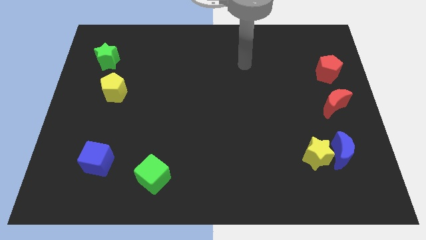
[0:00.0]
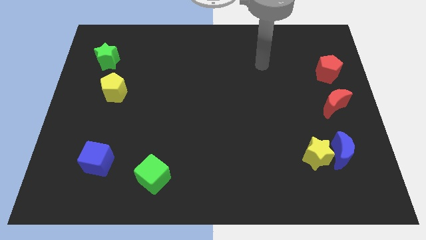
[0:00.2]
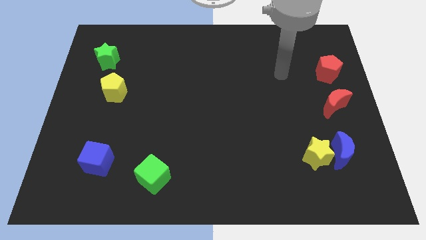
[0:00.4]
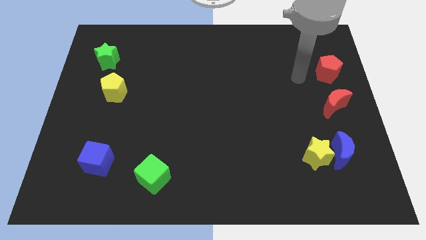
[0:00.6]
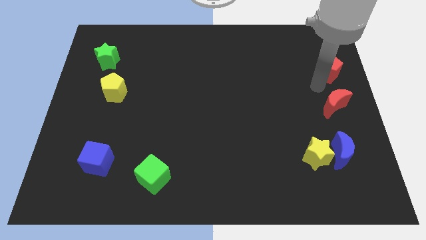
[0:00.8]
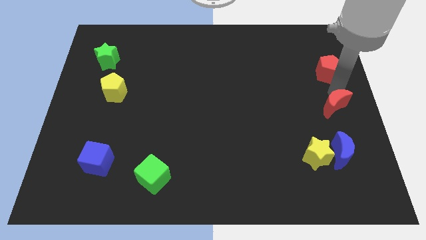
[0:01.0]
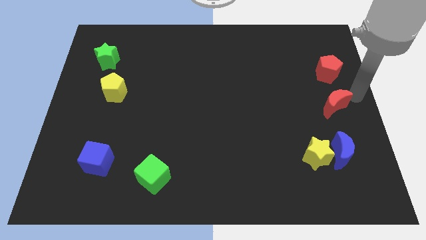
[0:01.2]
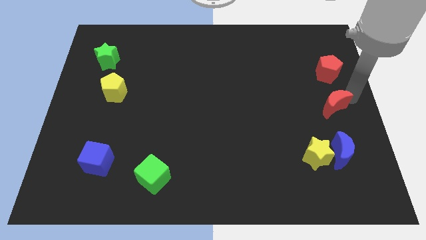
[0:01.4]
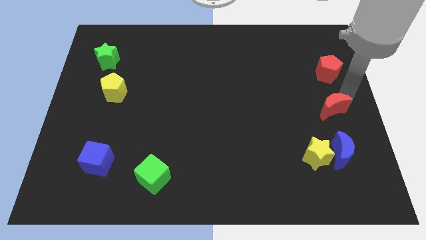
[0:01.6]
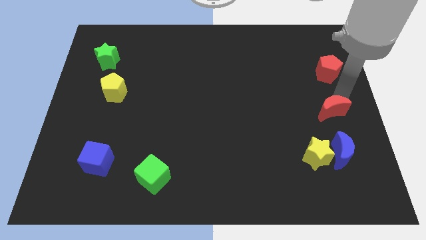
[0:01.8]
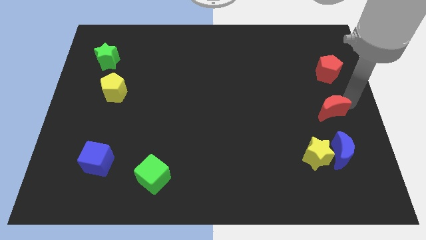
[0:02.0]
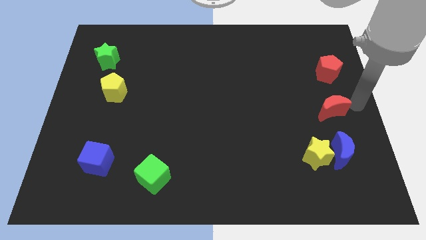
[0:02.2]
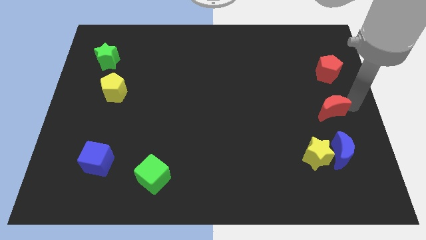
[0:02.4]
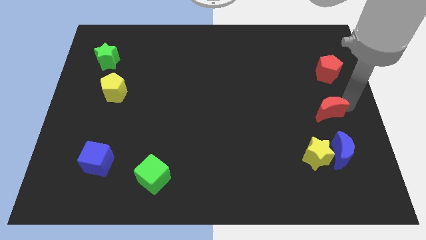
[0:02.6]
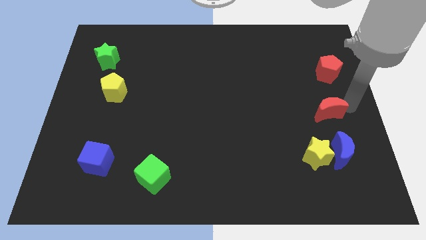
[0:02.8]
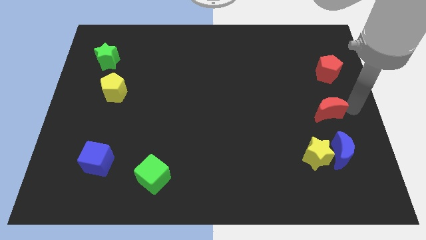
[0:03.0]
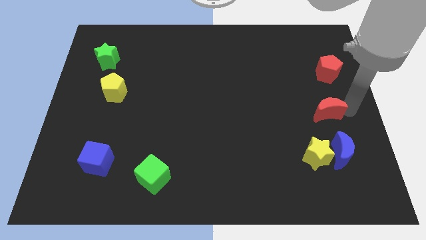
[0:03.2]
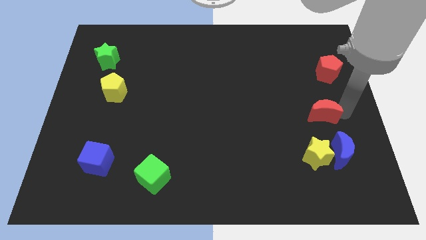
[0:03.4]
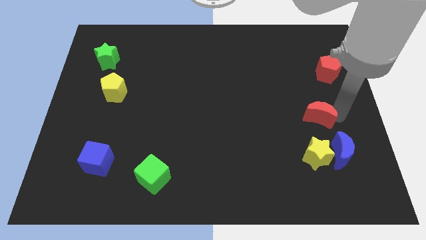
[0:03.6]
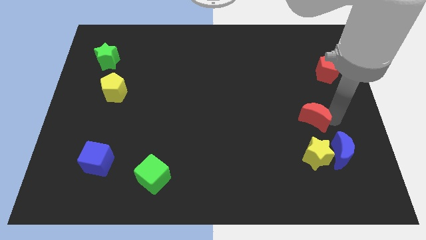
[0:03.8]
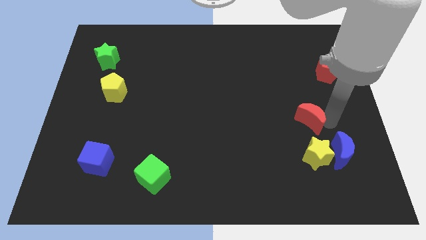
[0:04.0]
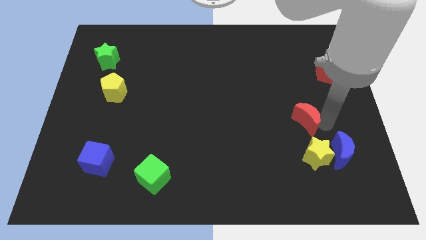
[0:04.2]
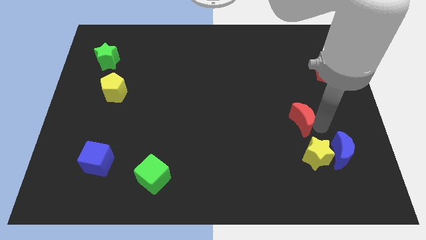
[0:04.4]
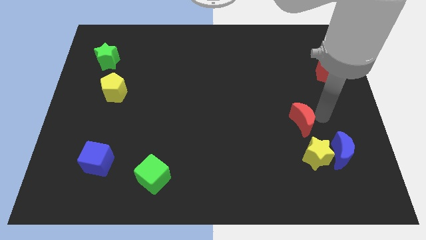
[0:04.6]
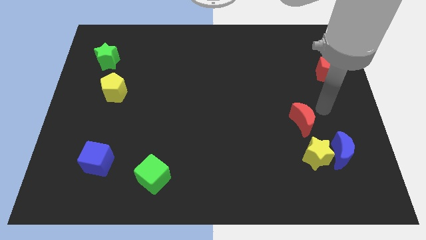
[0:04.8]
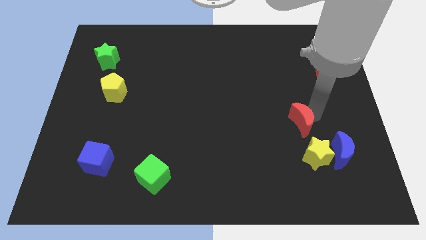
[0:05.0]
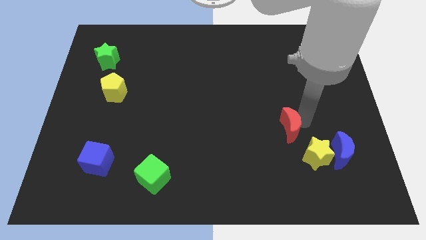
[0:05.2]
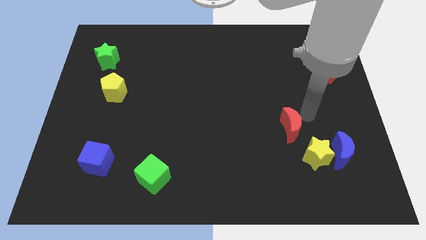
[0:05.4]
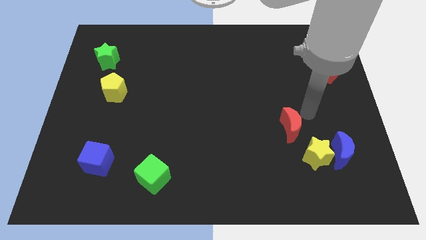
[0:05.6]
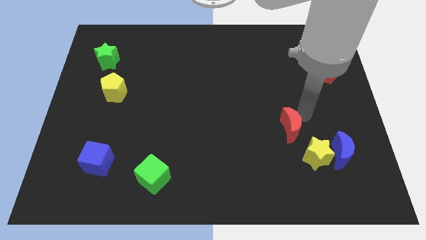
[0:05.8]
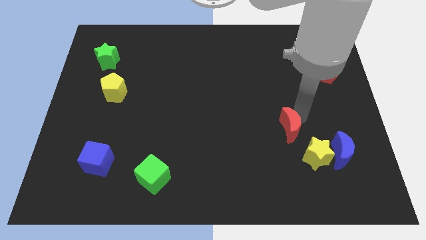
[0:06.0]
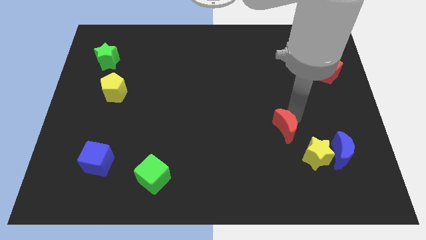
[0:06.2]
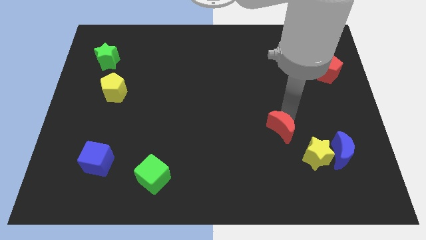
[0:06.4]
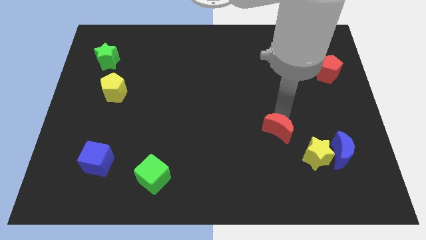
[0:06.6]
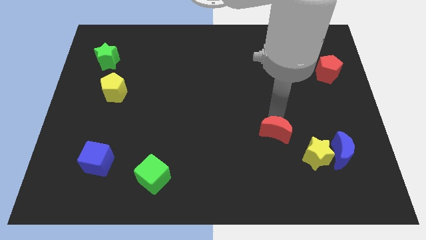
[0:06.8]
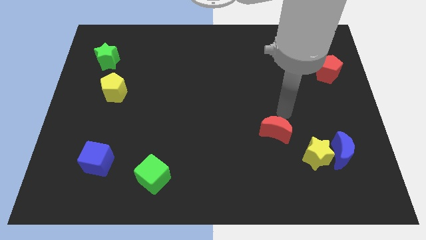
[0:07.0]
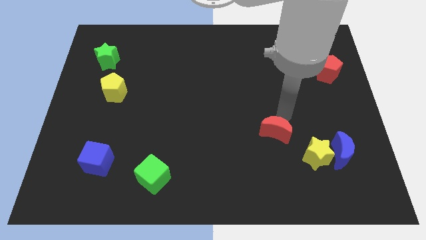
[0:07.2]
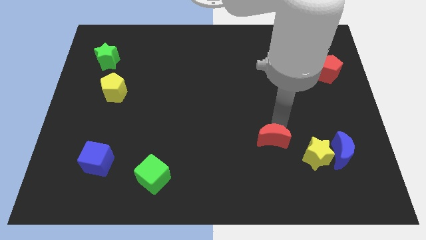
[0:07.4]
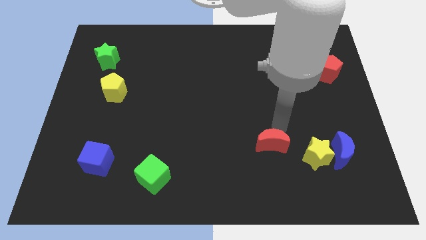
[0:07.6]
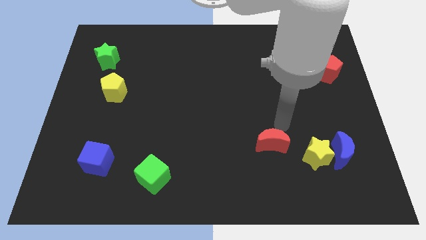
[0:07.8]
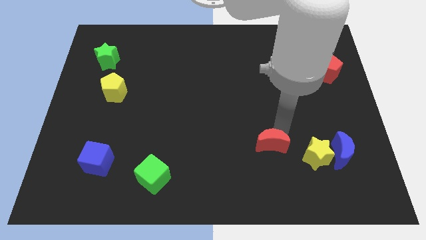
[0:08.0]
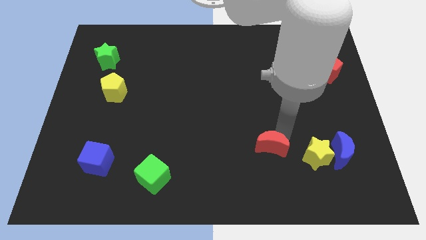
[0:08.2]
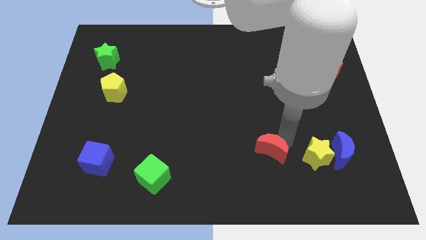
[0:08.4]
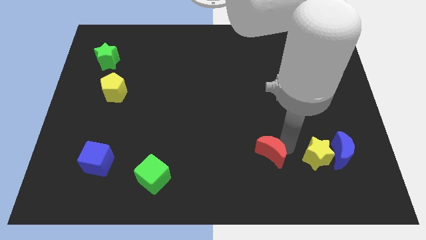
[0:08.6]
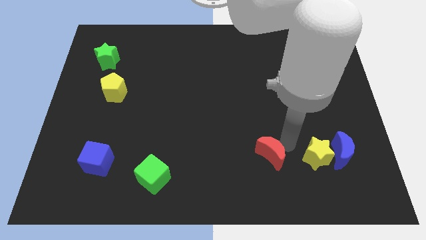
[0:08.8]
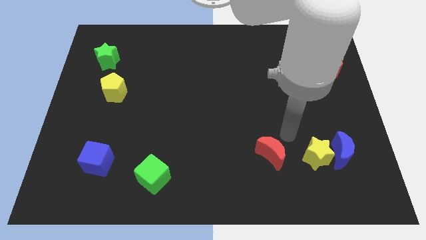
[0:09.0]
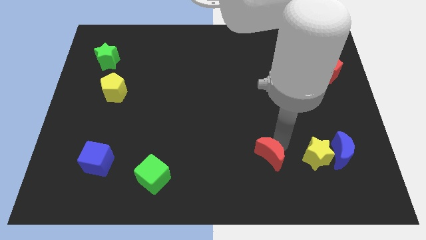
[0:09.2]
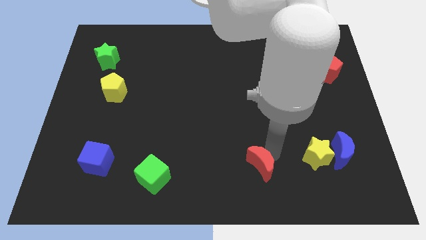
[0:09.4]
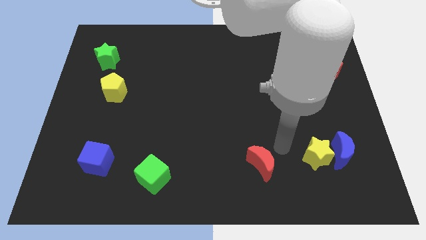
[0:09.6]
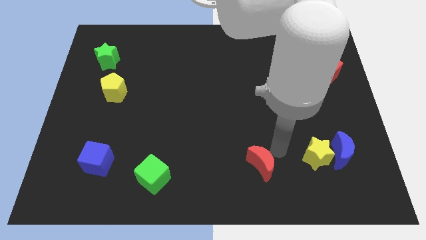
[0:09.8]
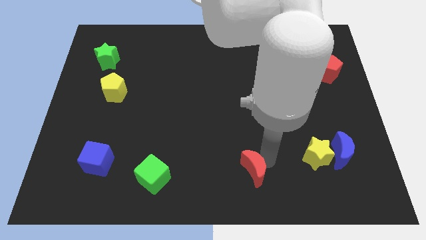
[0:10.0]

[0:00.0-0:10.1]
put the red moon to the bottom

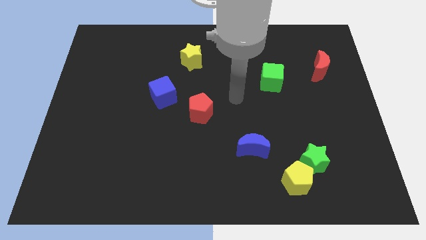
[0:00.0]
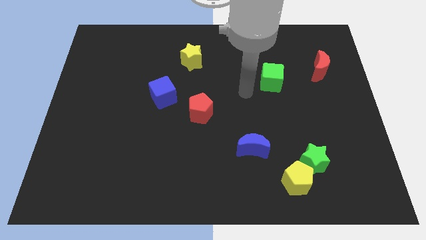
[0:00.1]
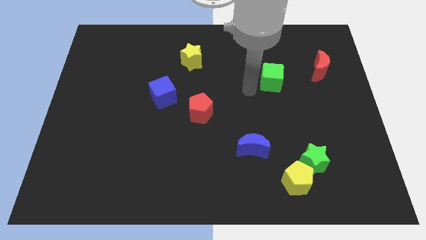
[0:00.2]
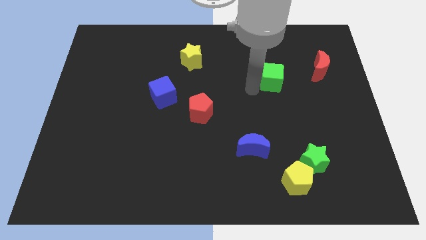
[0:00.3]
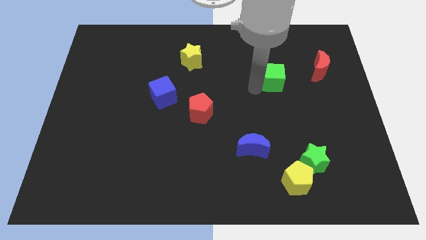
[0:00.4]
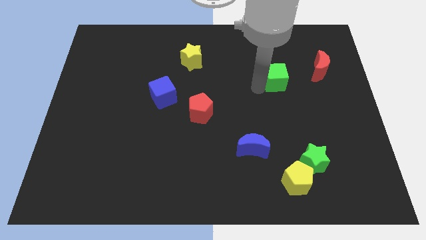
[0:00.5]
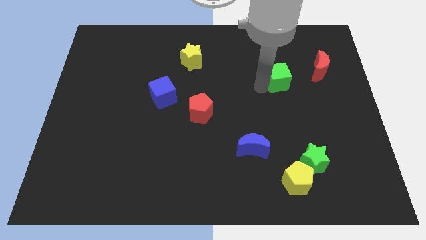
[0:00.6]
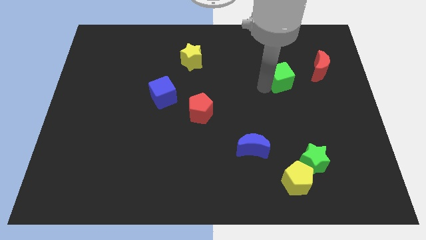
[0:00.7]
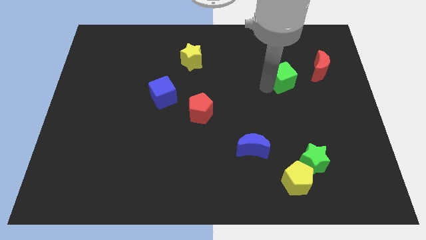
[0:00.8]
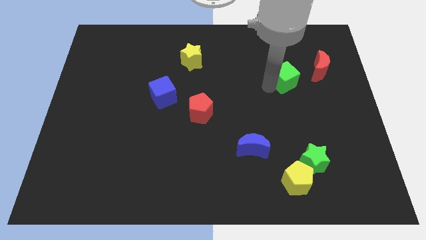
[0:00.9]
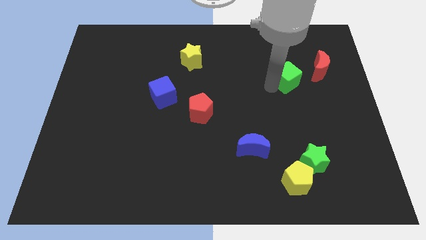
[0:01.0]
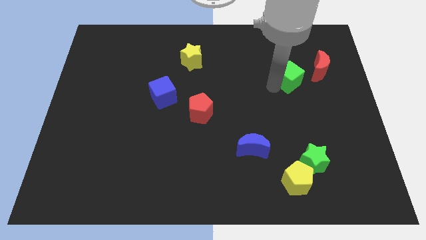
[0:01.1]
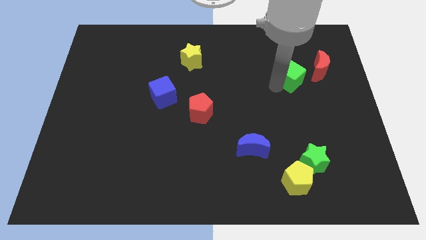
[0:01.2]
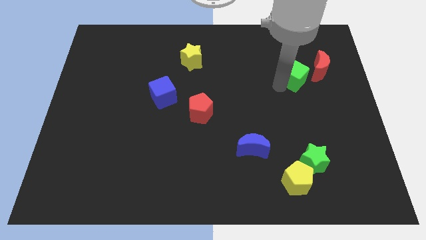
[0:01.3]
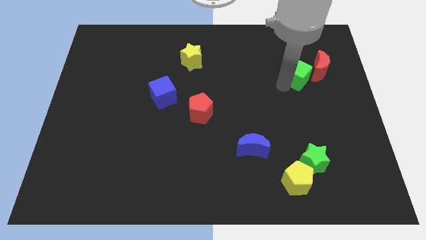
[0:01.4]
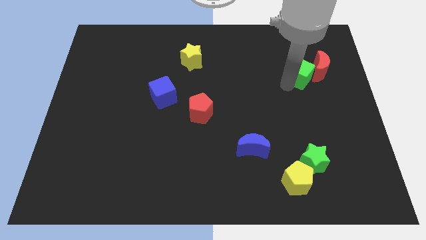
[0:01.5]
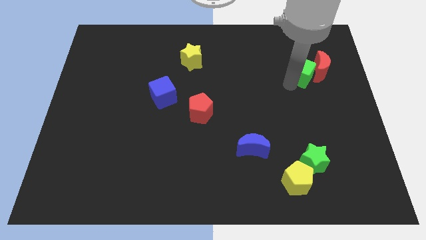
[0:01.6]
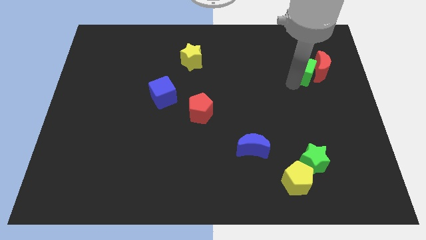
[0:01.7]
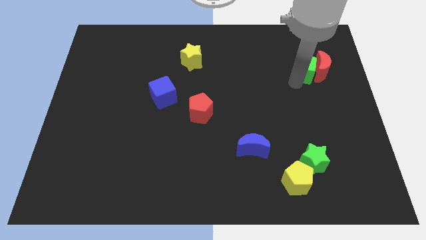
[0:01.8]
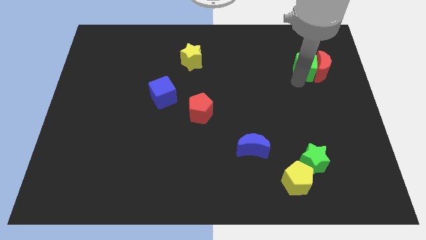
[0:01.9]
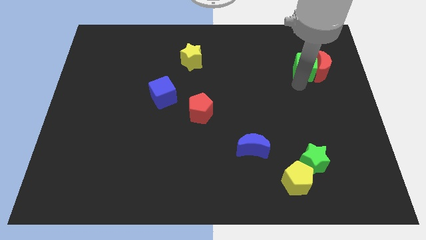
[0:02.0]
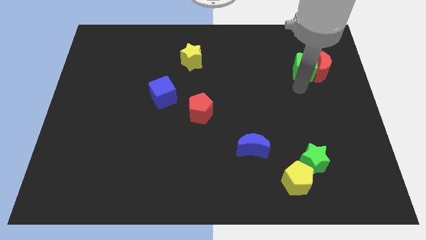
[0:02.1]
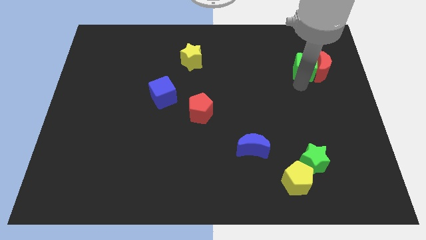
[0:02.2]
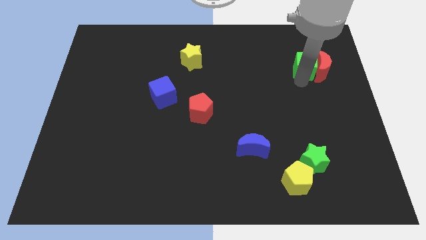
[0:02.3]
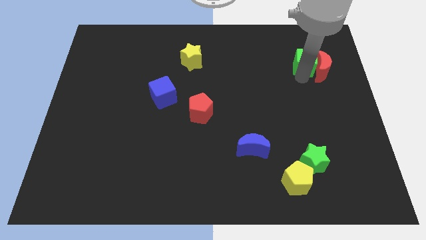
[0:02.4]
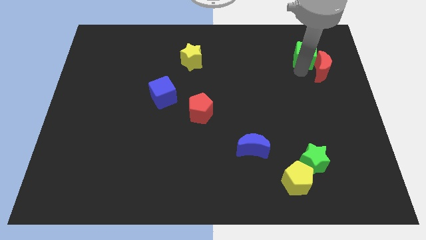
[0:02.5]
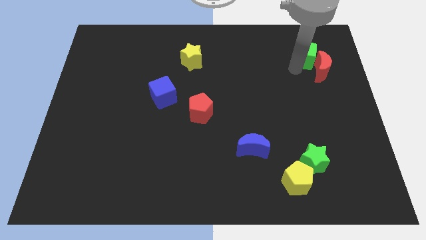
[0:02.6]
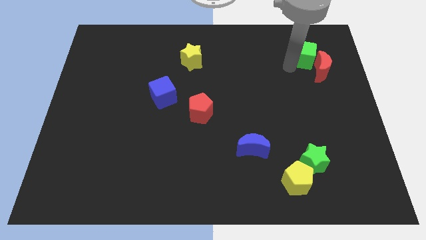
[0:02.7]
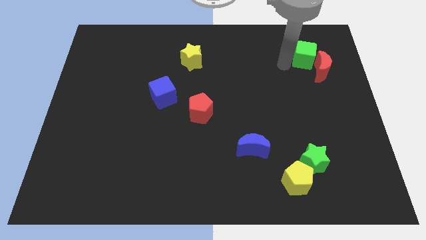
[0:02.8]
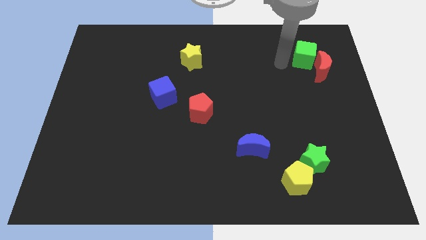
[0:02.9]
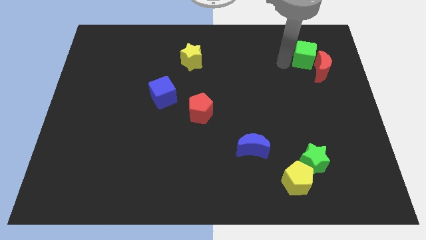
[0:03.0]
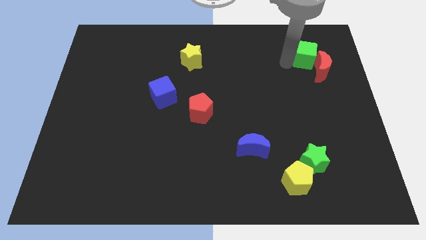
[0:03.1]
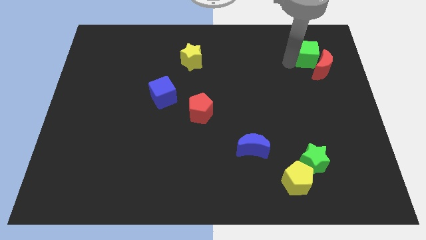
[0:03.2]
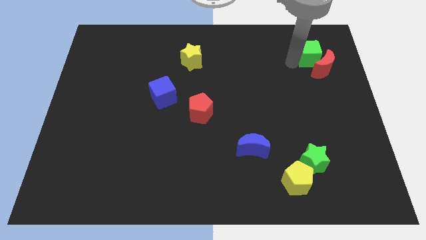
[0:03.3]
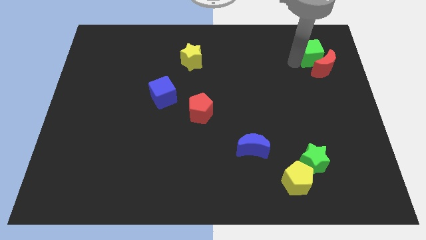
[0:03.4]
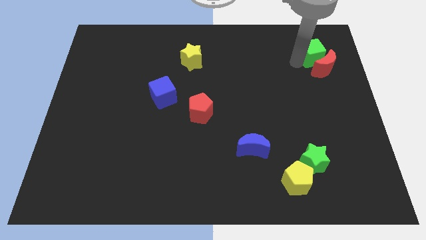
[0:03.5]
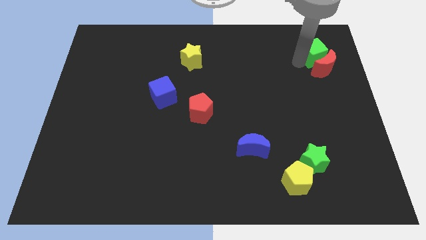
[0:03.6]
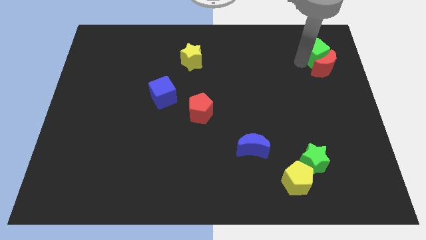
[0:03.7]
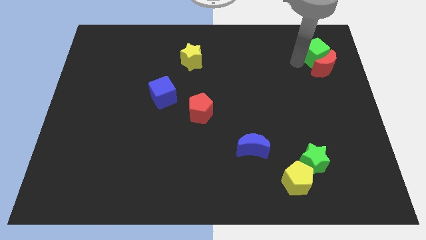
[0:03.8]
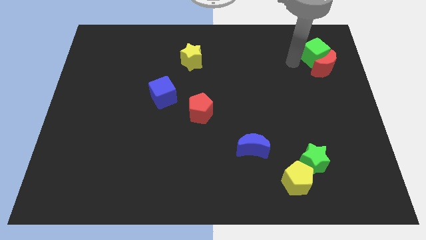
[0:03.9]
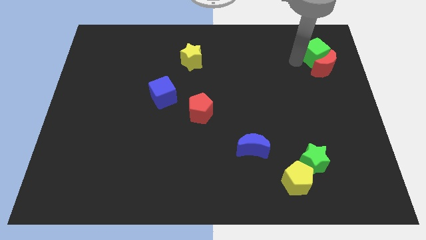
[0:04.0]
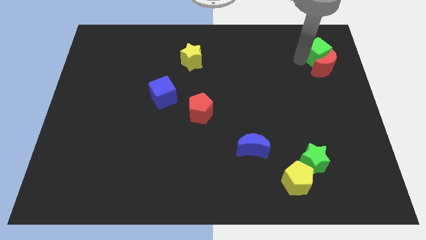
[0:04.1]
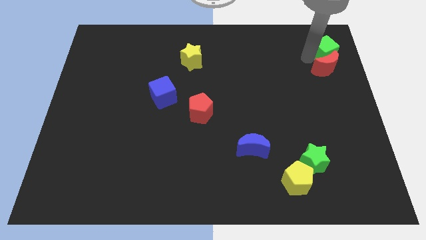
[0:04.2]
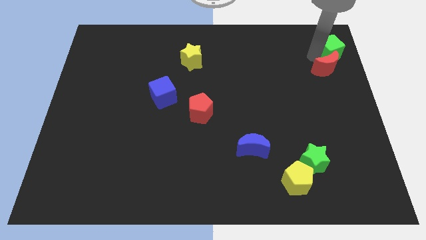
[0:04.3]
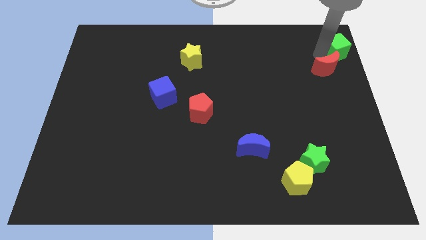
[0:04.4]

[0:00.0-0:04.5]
slide the green cube to the upper right corner
